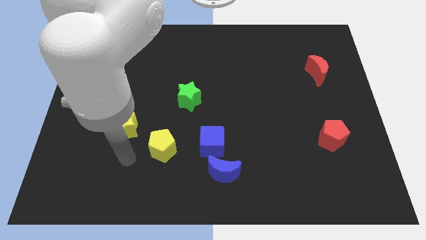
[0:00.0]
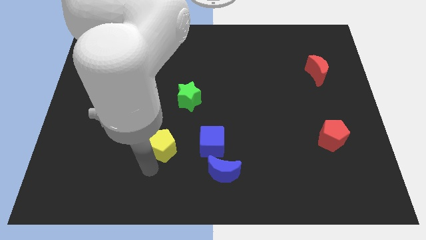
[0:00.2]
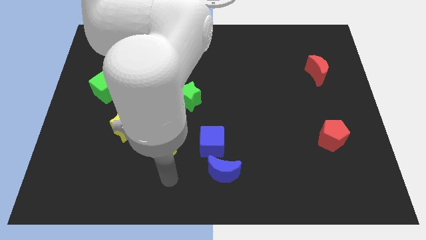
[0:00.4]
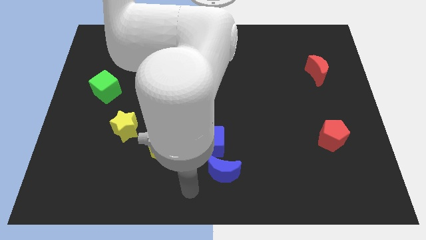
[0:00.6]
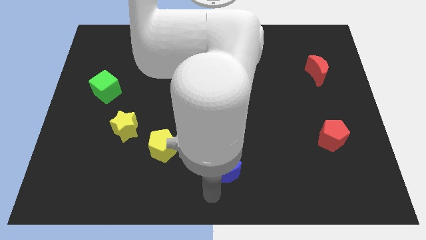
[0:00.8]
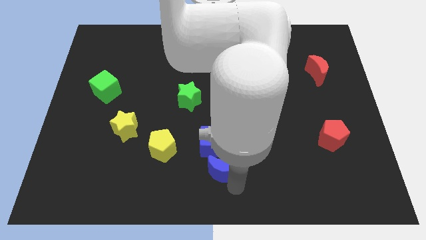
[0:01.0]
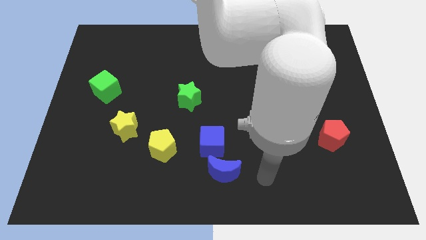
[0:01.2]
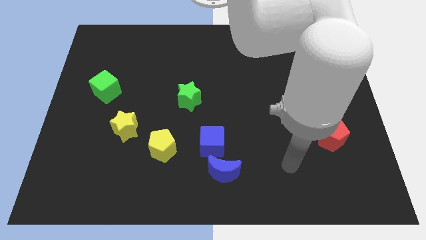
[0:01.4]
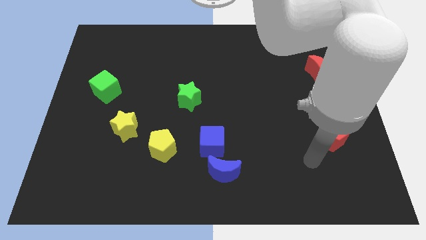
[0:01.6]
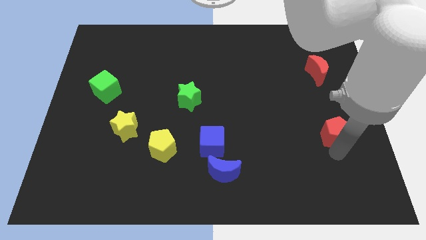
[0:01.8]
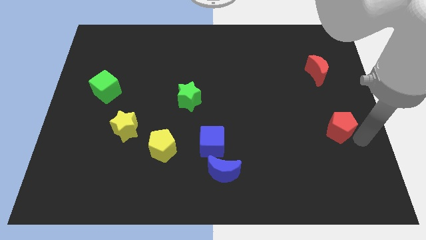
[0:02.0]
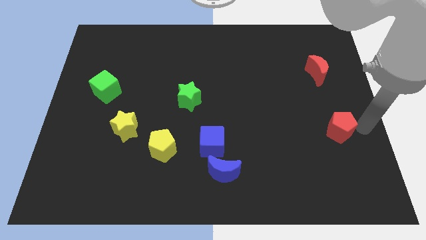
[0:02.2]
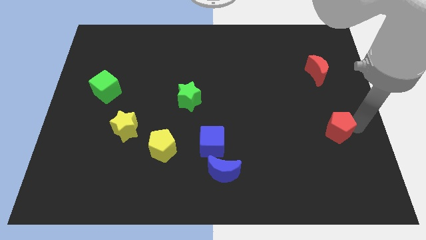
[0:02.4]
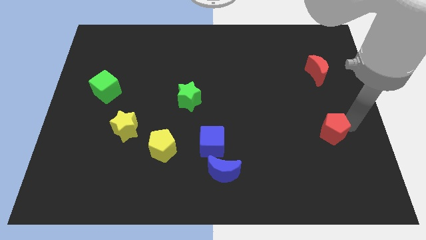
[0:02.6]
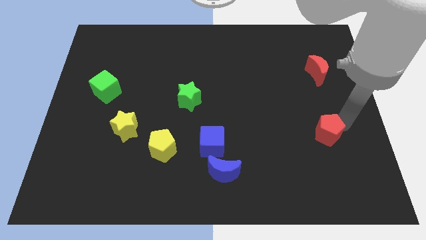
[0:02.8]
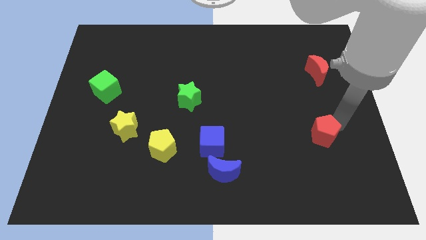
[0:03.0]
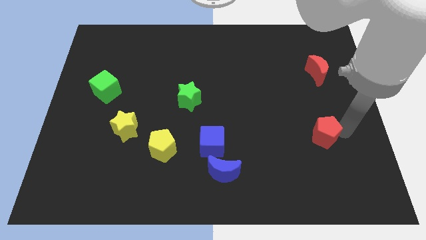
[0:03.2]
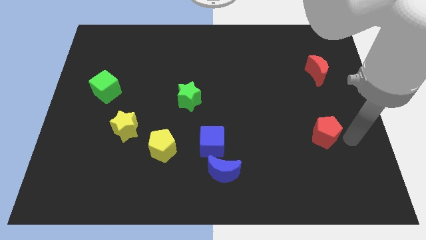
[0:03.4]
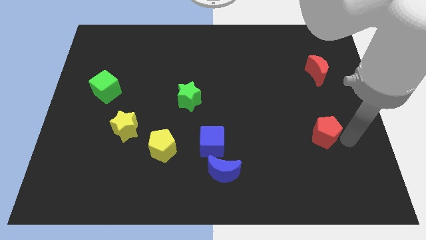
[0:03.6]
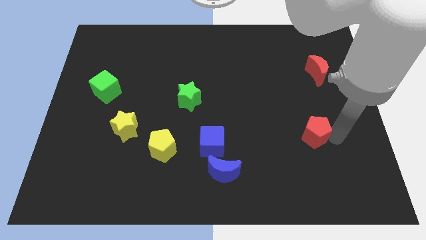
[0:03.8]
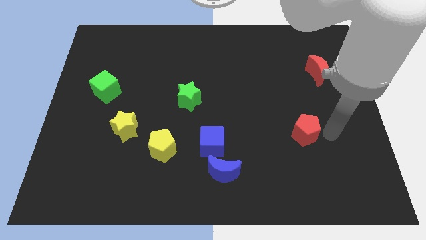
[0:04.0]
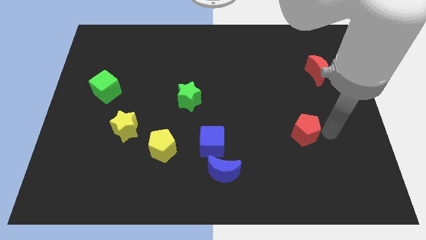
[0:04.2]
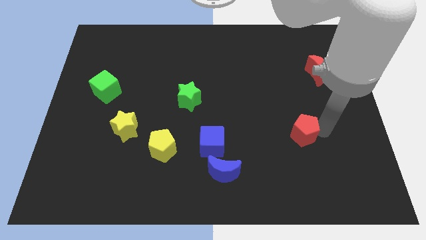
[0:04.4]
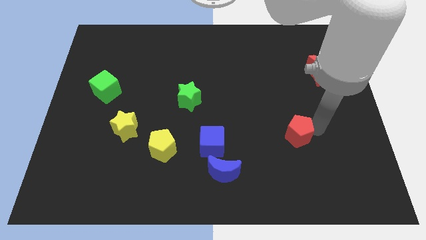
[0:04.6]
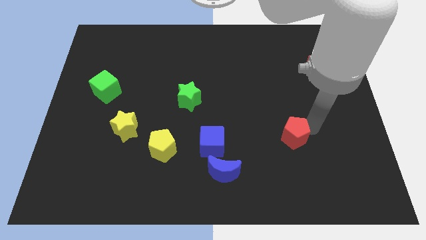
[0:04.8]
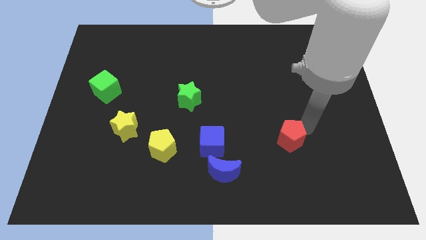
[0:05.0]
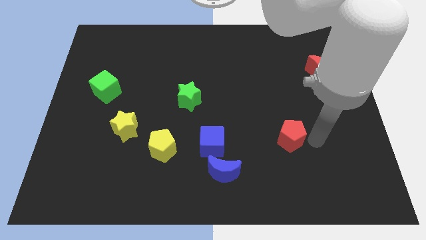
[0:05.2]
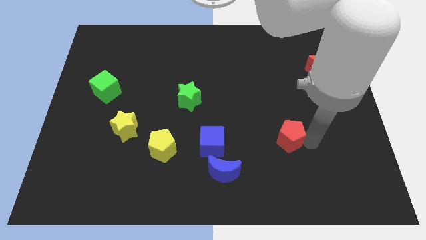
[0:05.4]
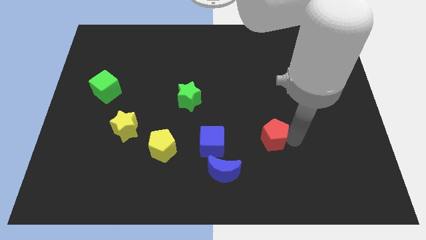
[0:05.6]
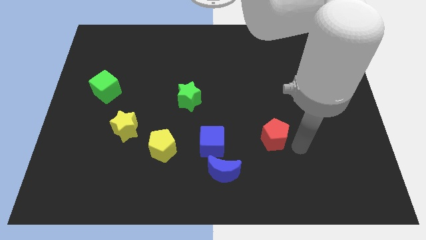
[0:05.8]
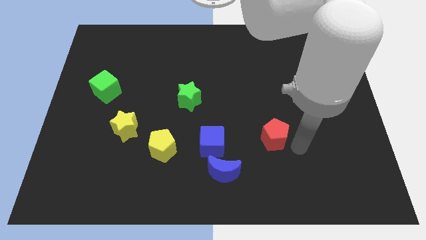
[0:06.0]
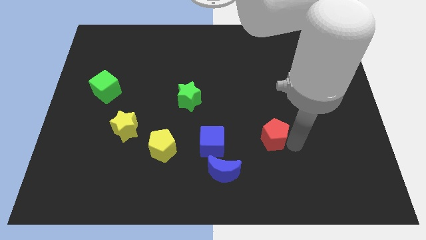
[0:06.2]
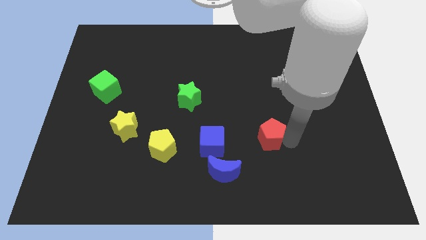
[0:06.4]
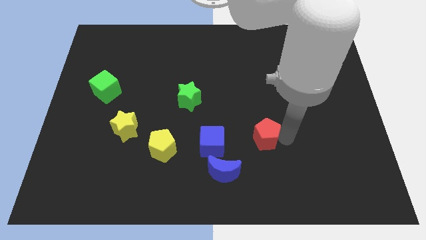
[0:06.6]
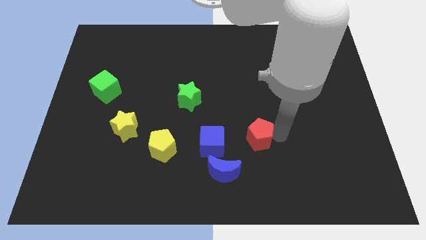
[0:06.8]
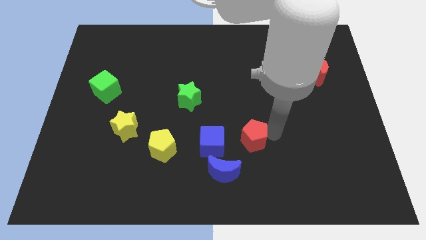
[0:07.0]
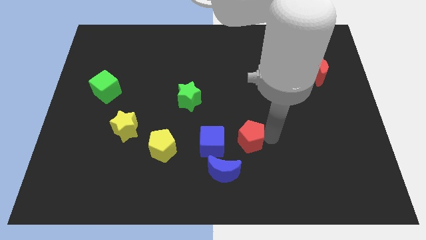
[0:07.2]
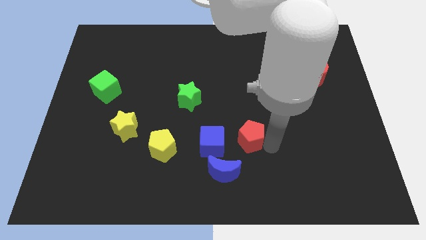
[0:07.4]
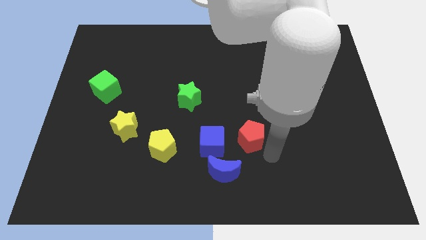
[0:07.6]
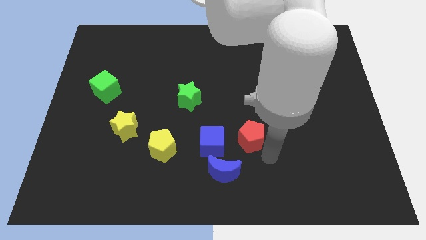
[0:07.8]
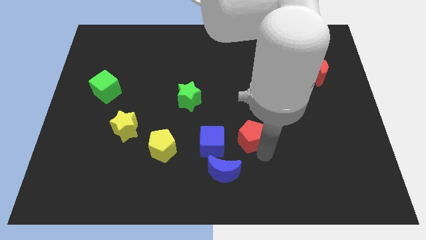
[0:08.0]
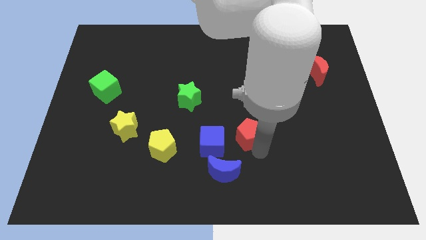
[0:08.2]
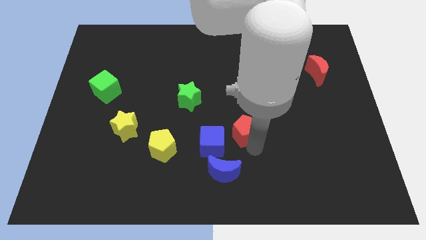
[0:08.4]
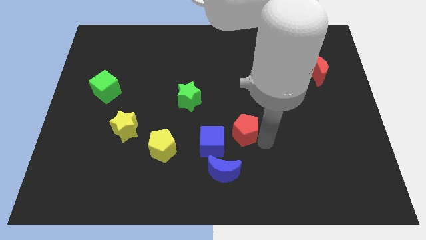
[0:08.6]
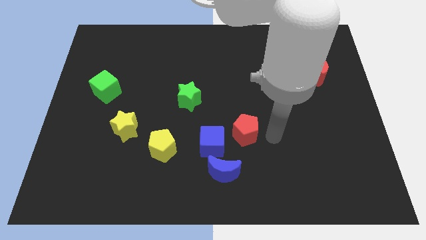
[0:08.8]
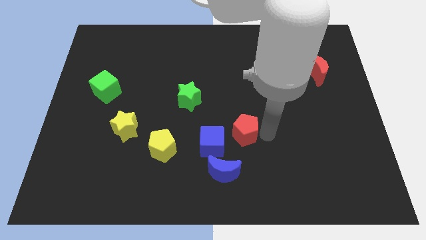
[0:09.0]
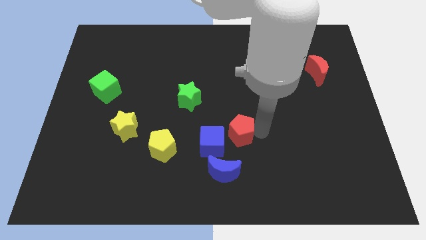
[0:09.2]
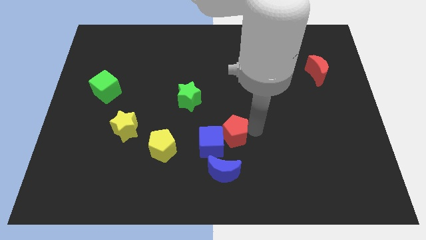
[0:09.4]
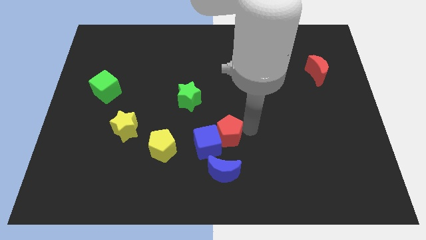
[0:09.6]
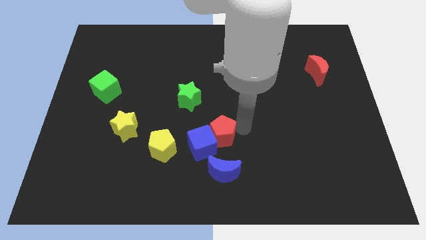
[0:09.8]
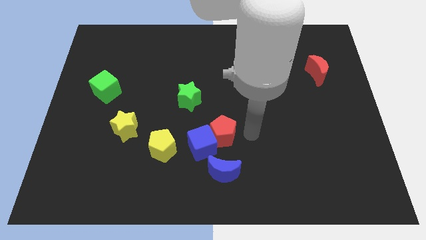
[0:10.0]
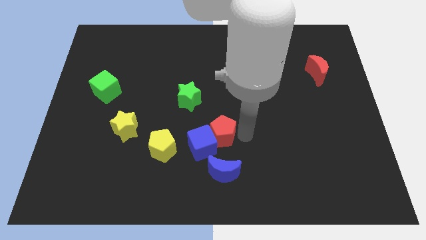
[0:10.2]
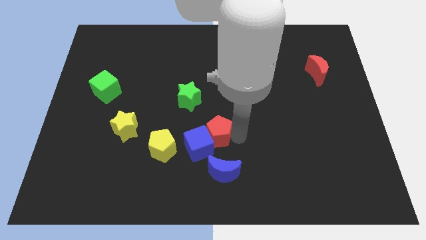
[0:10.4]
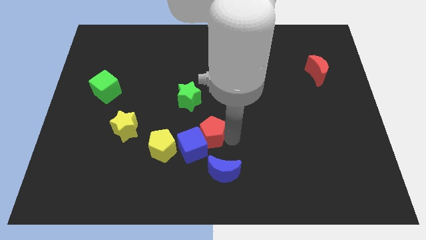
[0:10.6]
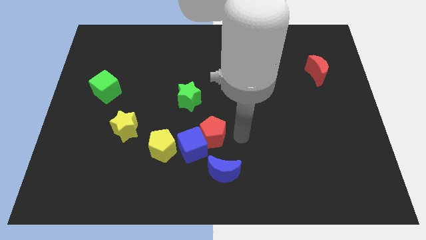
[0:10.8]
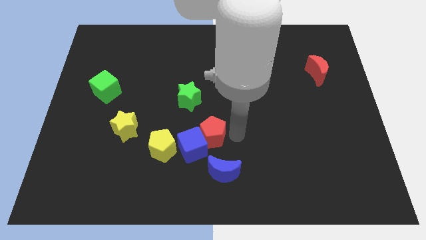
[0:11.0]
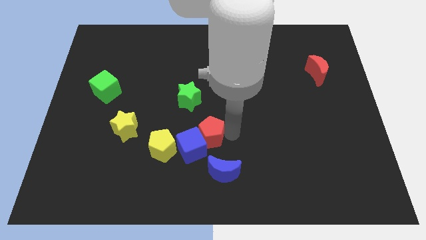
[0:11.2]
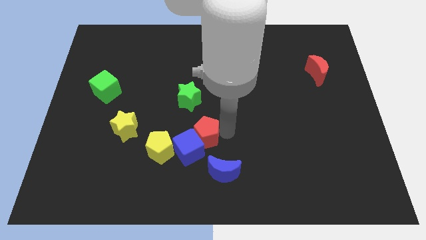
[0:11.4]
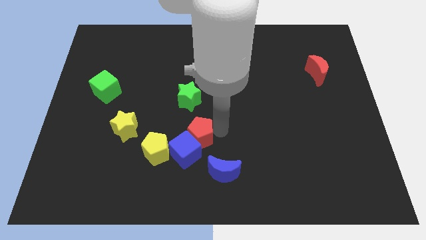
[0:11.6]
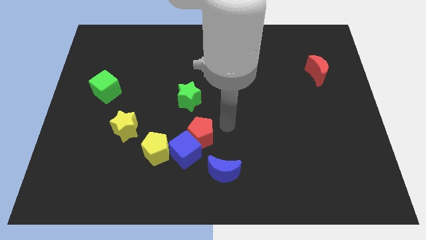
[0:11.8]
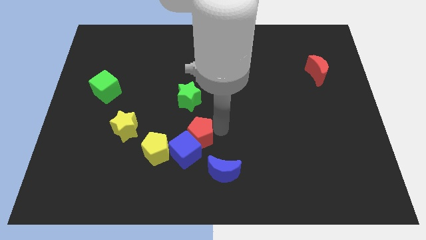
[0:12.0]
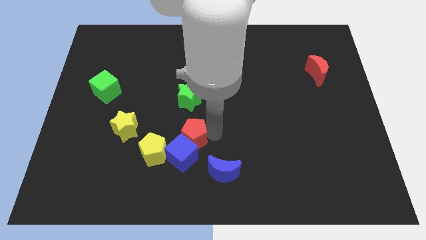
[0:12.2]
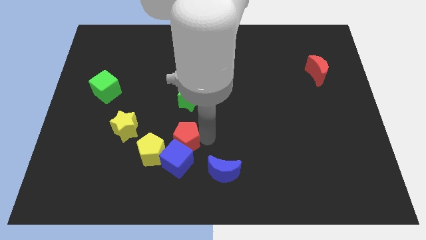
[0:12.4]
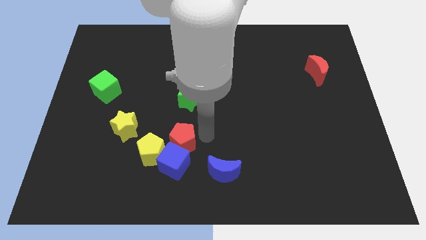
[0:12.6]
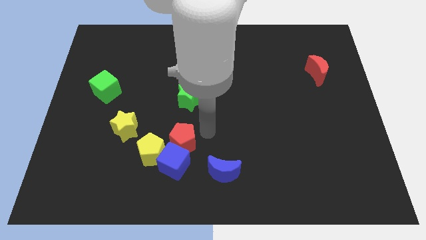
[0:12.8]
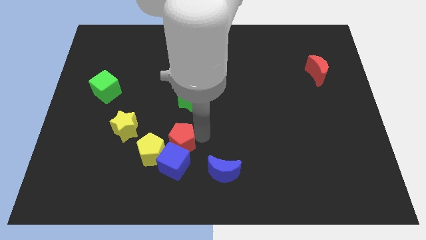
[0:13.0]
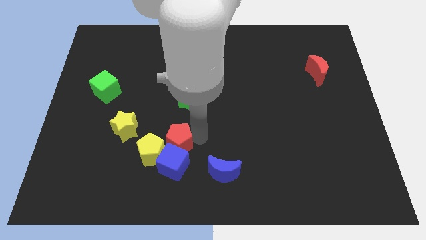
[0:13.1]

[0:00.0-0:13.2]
put the red pentagon next to the yellow pentagon
